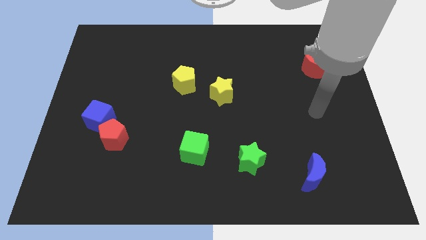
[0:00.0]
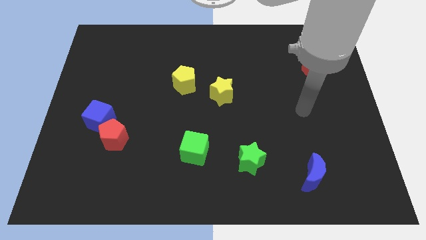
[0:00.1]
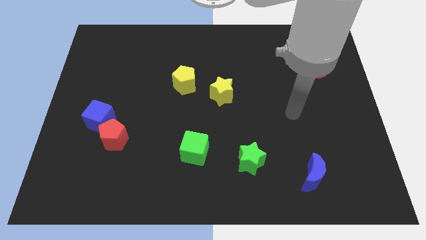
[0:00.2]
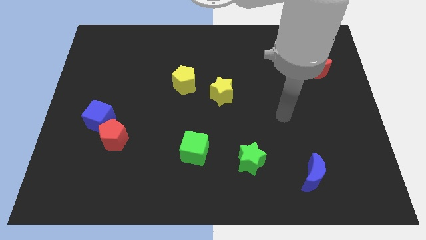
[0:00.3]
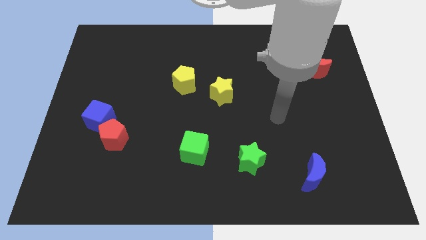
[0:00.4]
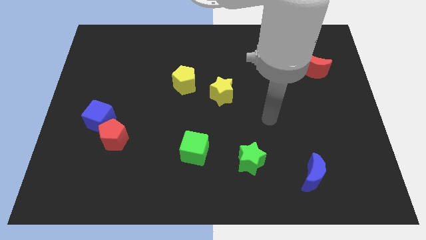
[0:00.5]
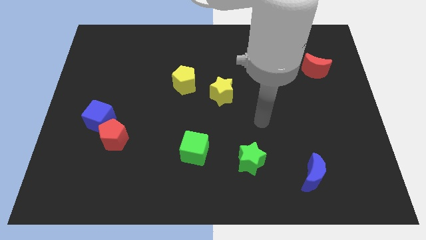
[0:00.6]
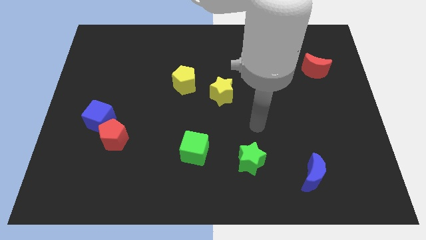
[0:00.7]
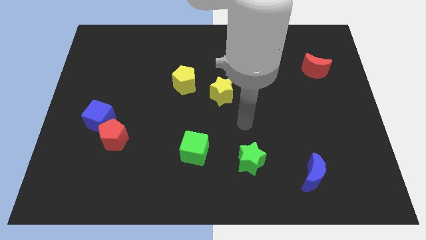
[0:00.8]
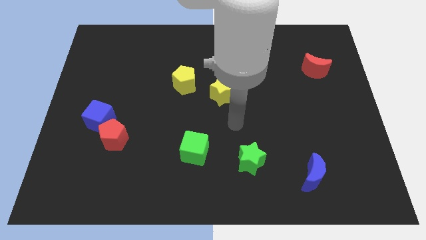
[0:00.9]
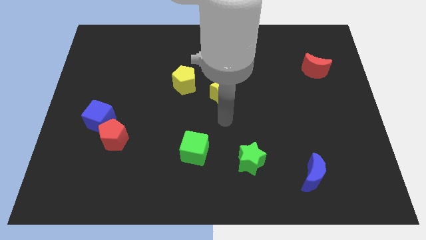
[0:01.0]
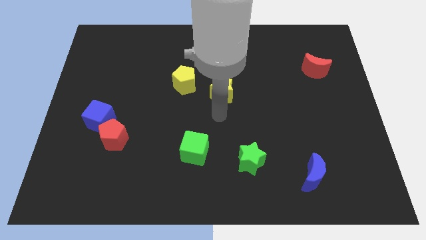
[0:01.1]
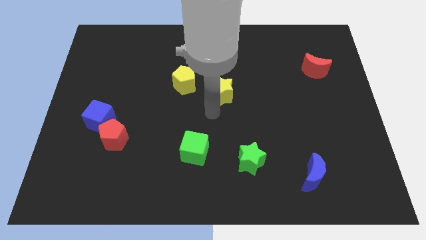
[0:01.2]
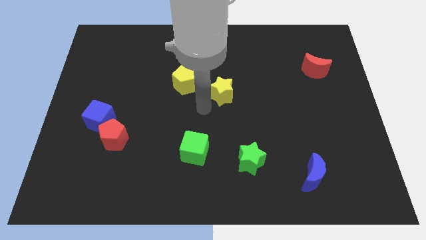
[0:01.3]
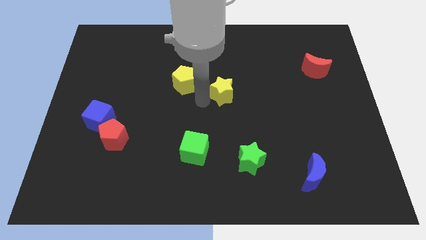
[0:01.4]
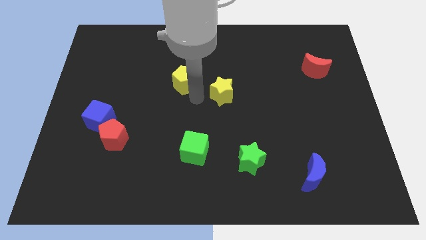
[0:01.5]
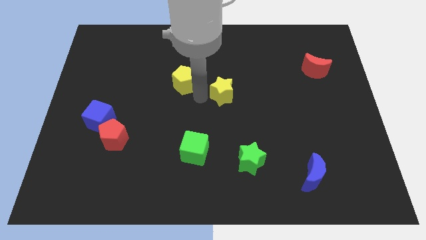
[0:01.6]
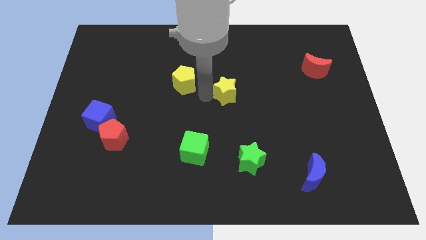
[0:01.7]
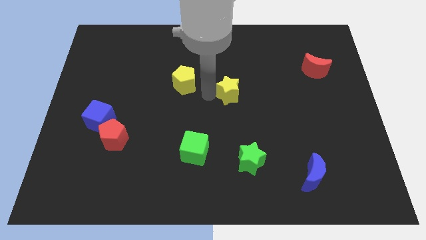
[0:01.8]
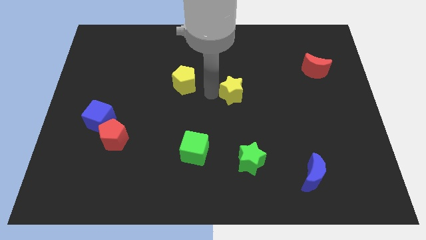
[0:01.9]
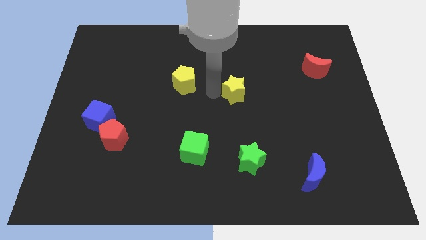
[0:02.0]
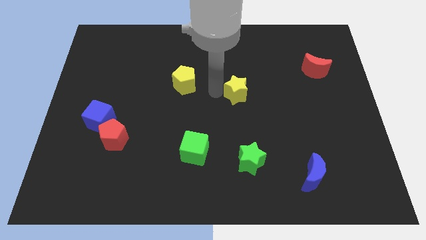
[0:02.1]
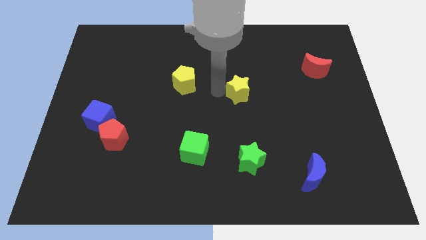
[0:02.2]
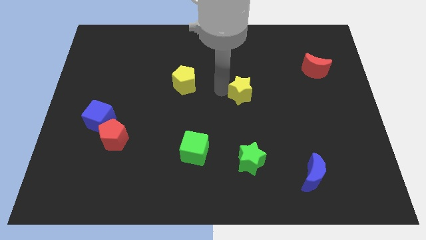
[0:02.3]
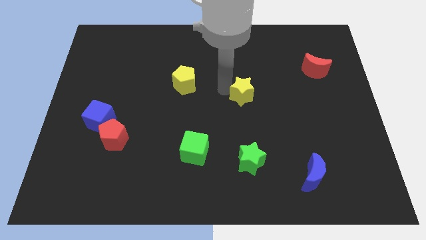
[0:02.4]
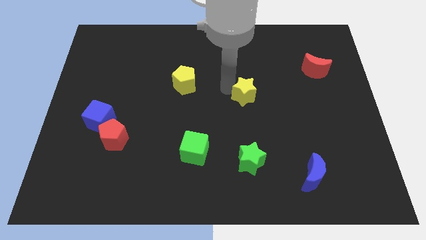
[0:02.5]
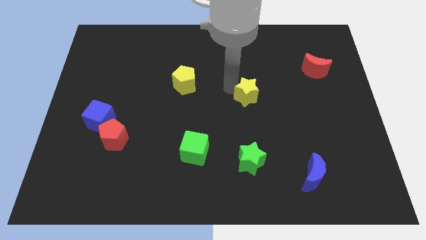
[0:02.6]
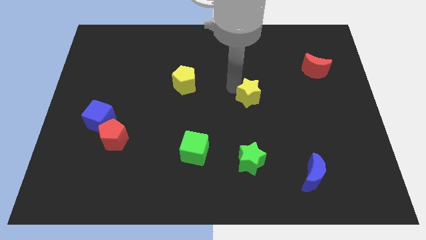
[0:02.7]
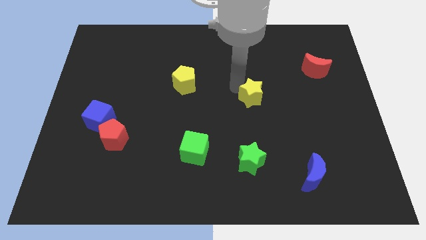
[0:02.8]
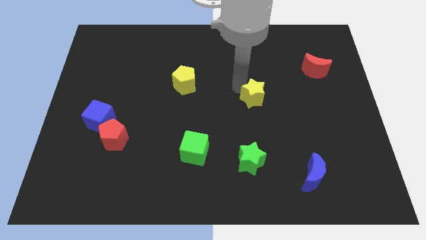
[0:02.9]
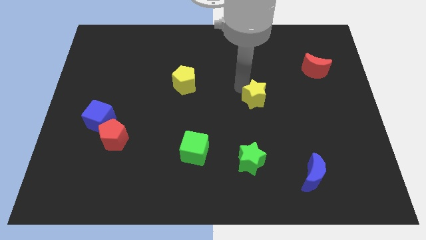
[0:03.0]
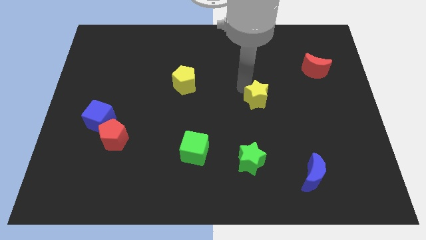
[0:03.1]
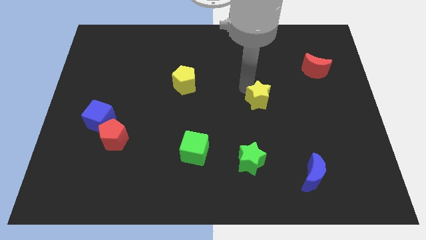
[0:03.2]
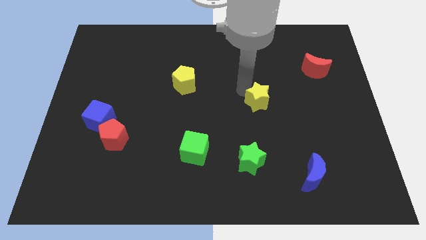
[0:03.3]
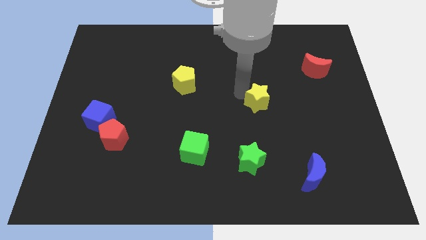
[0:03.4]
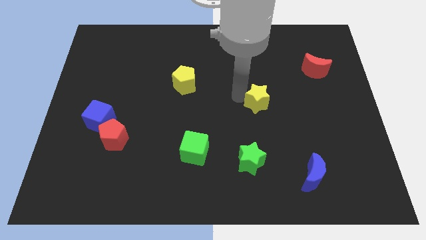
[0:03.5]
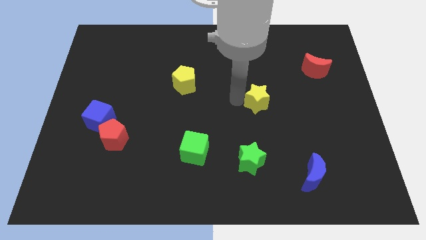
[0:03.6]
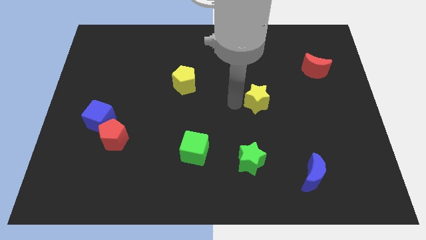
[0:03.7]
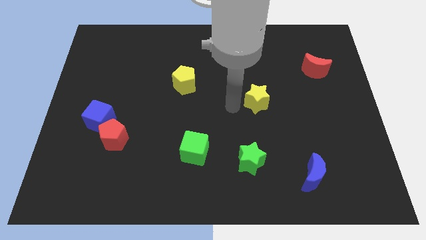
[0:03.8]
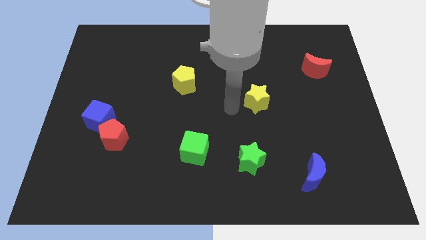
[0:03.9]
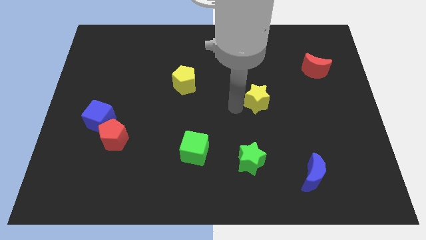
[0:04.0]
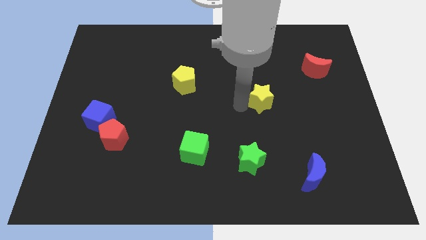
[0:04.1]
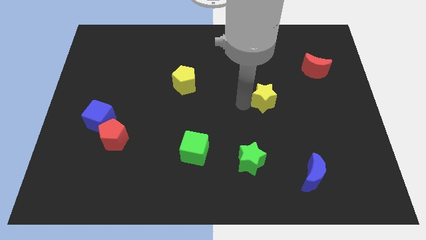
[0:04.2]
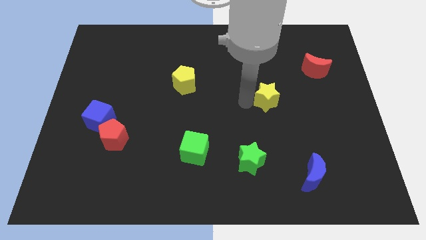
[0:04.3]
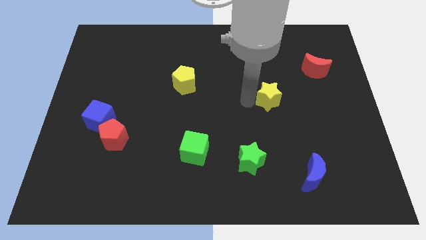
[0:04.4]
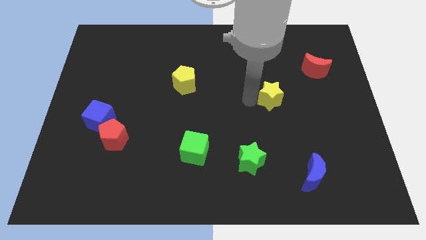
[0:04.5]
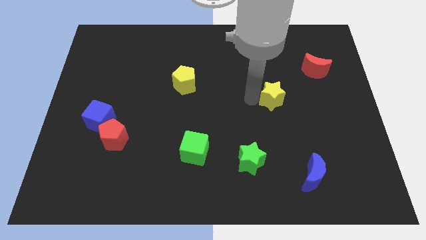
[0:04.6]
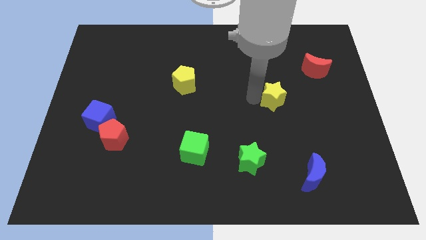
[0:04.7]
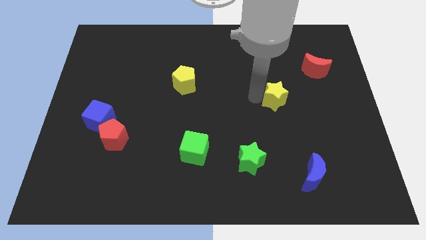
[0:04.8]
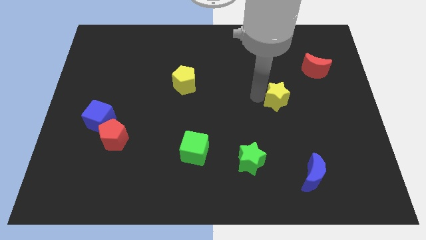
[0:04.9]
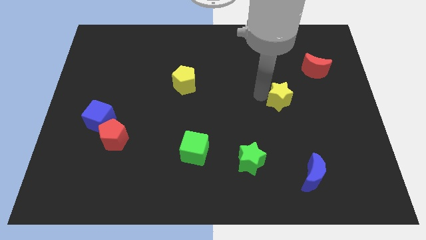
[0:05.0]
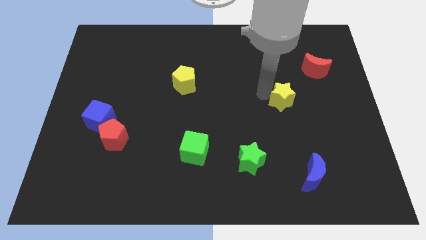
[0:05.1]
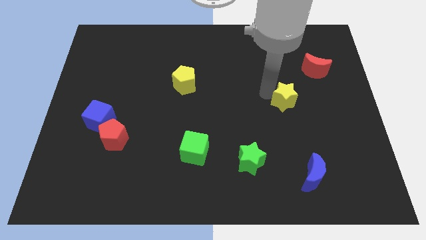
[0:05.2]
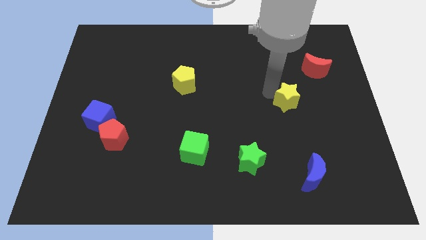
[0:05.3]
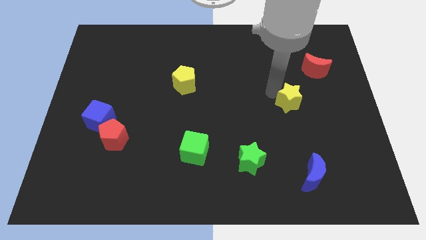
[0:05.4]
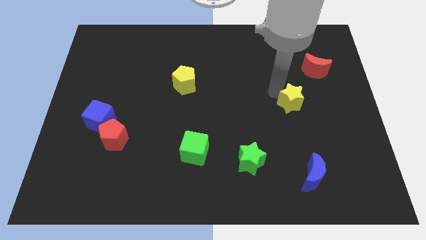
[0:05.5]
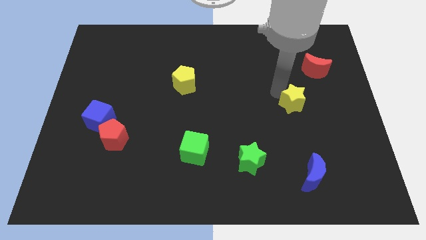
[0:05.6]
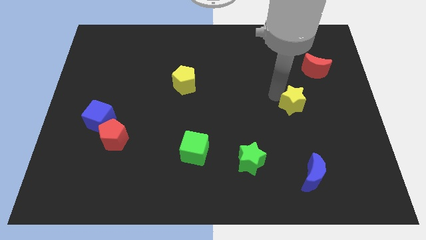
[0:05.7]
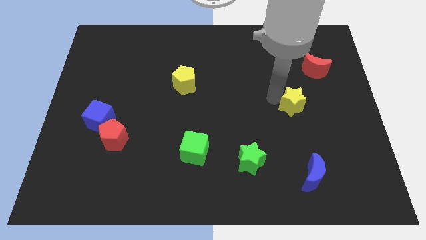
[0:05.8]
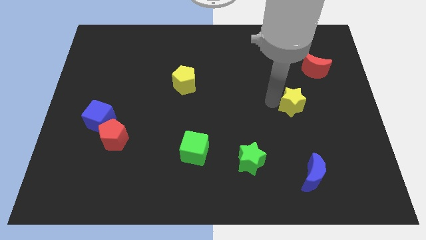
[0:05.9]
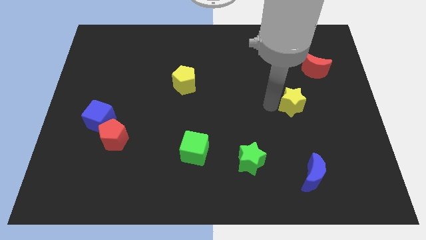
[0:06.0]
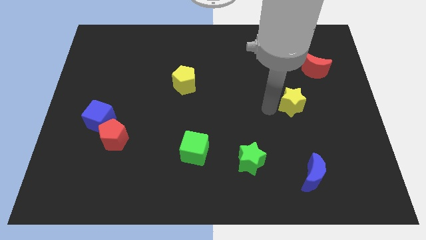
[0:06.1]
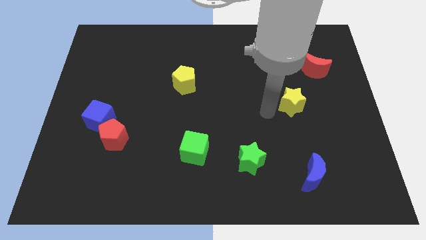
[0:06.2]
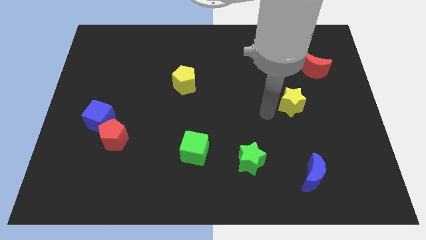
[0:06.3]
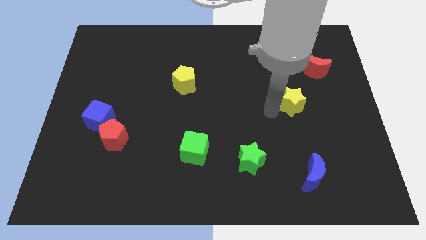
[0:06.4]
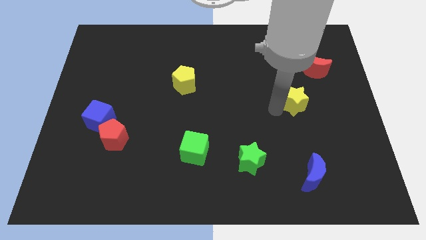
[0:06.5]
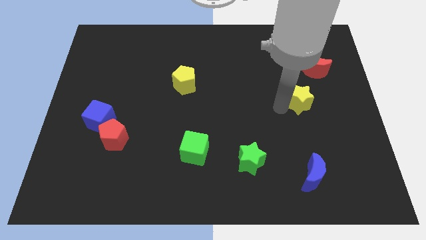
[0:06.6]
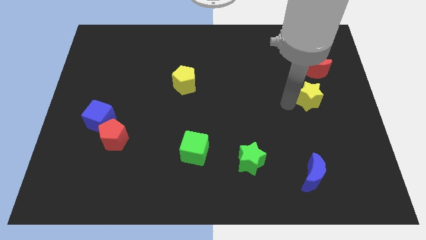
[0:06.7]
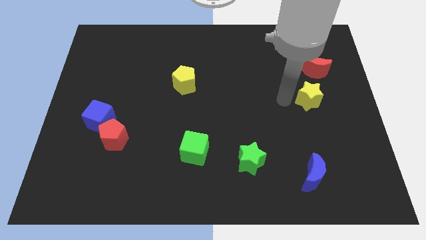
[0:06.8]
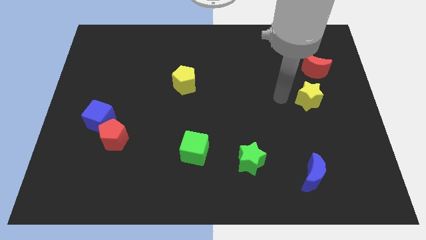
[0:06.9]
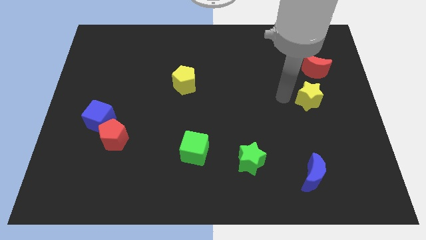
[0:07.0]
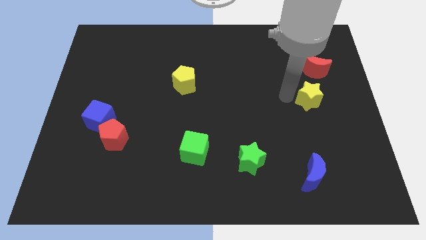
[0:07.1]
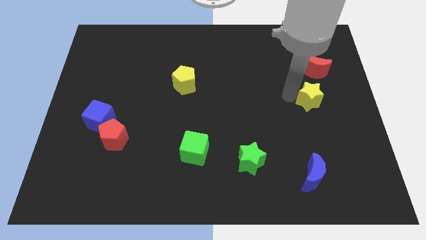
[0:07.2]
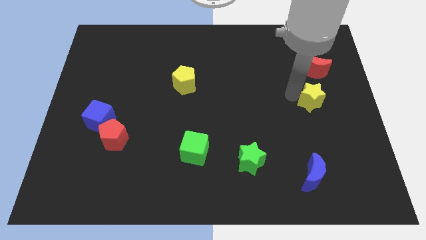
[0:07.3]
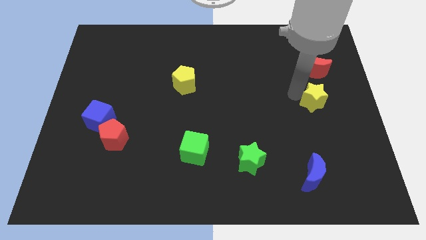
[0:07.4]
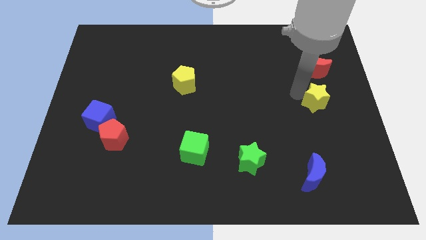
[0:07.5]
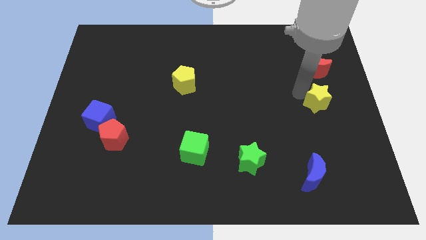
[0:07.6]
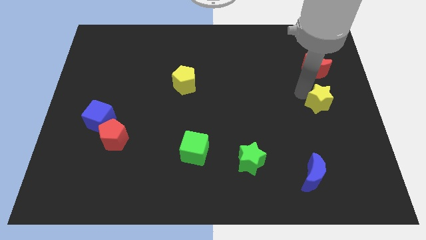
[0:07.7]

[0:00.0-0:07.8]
slide the yellow star to the right side of the board
